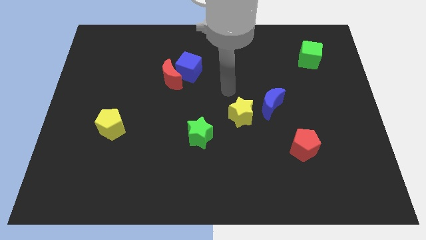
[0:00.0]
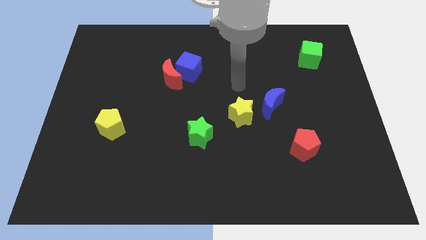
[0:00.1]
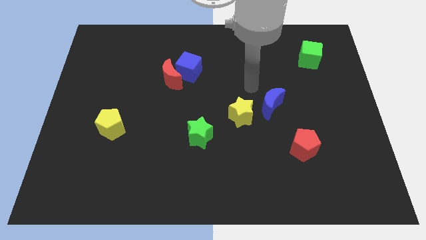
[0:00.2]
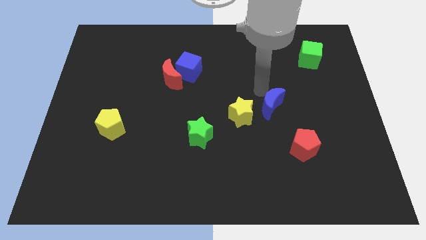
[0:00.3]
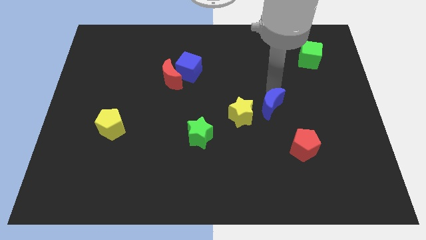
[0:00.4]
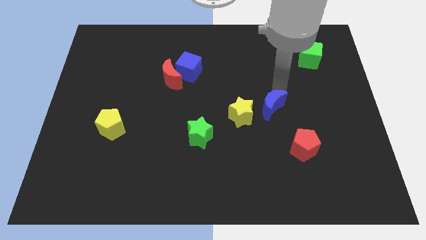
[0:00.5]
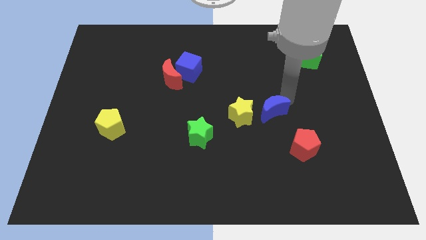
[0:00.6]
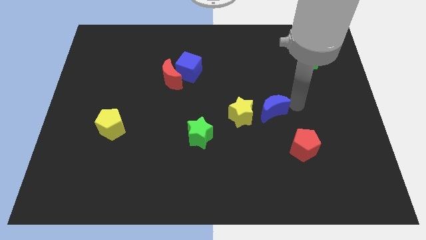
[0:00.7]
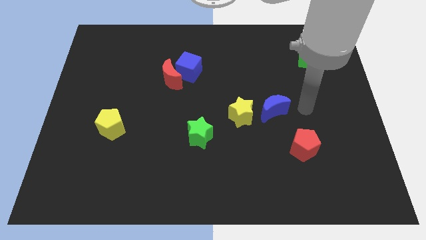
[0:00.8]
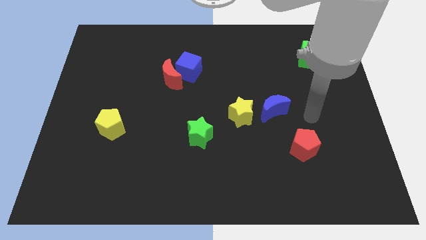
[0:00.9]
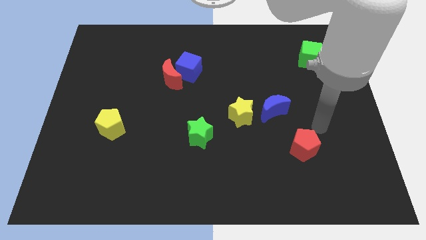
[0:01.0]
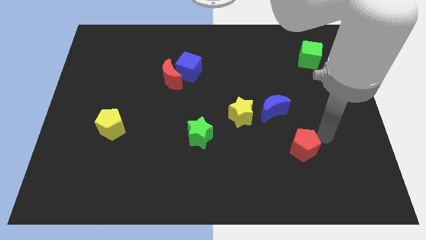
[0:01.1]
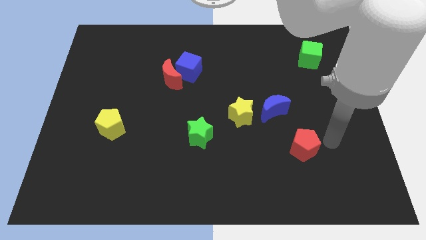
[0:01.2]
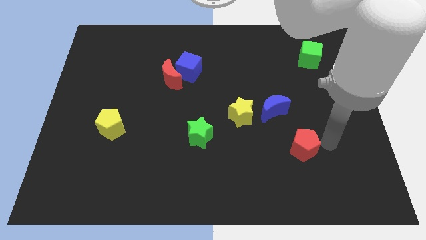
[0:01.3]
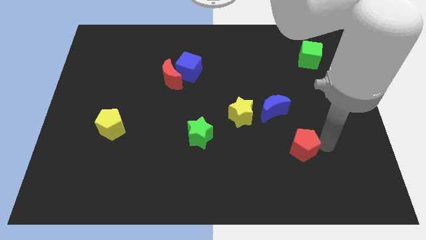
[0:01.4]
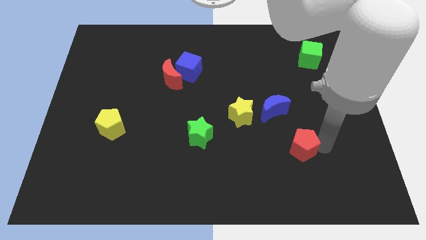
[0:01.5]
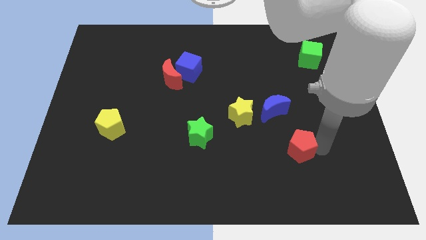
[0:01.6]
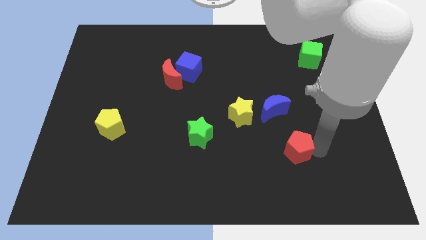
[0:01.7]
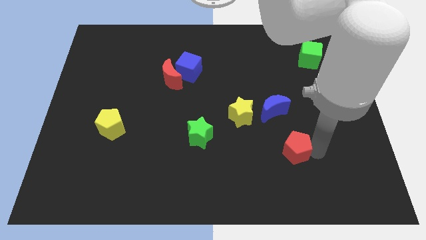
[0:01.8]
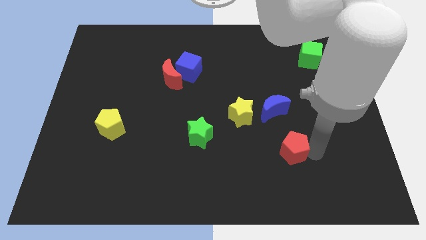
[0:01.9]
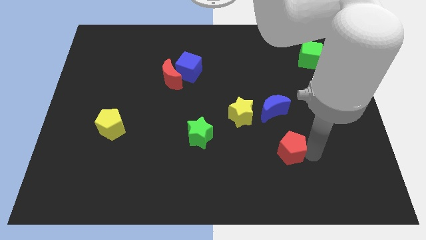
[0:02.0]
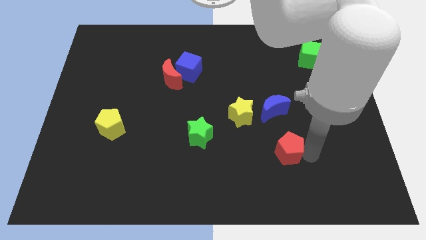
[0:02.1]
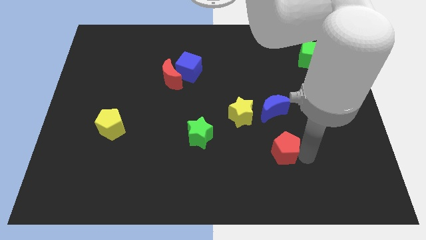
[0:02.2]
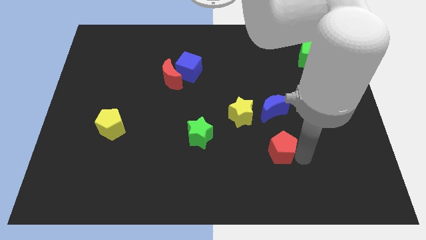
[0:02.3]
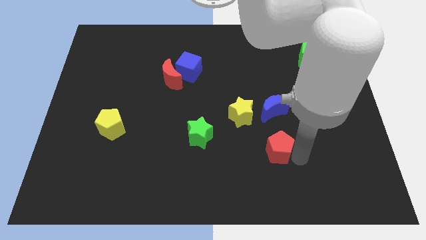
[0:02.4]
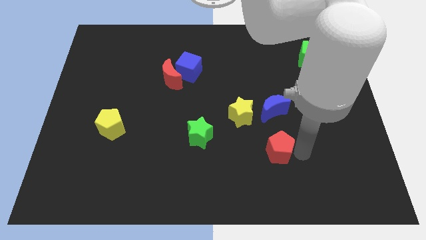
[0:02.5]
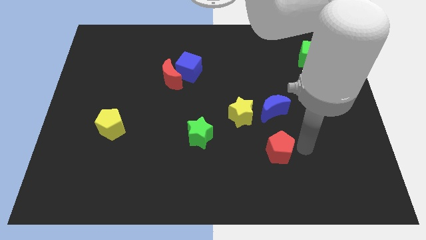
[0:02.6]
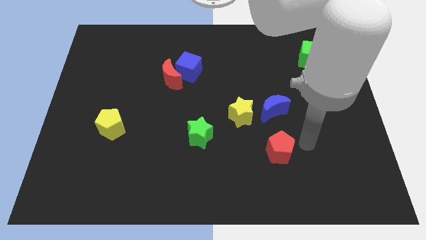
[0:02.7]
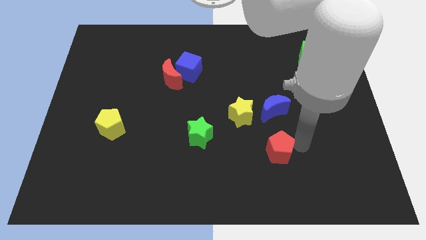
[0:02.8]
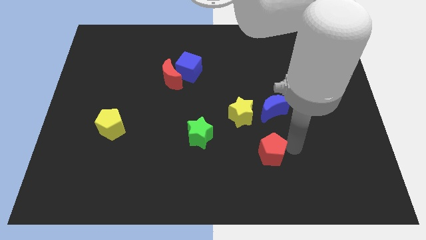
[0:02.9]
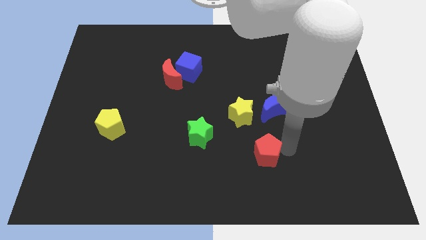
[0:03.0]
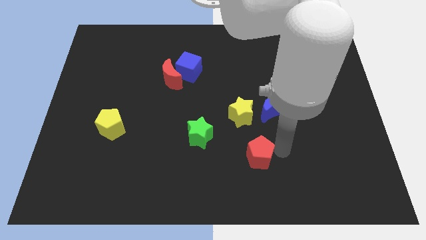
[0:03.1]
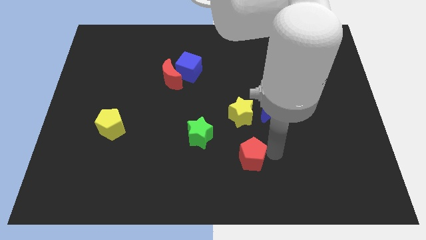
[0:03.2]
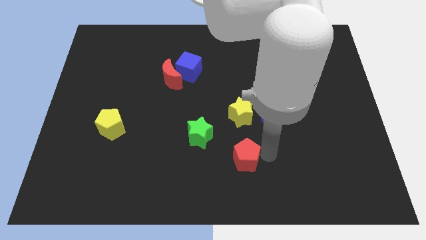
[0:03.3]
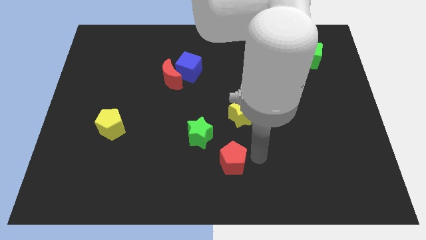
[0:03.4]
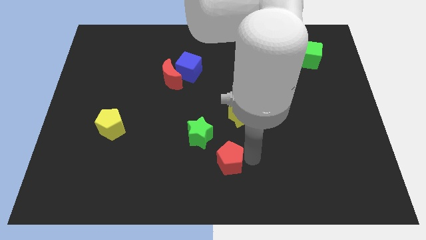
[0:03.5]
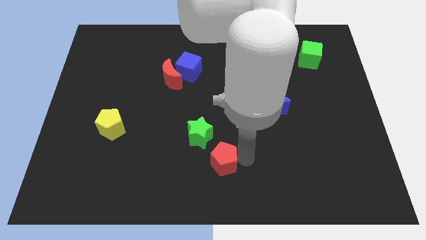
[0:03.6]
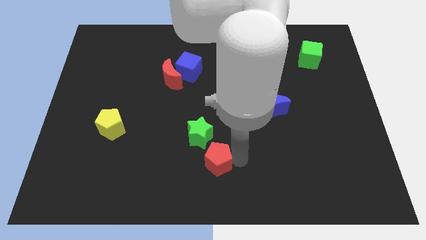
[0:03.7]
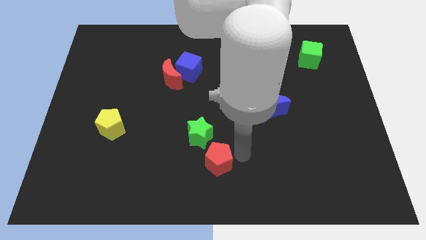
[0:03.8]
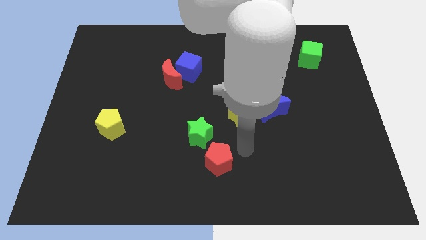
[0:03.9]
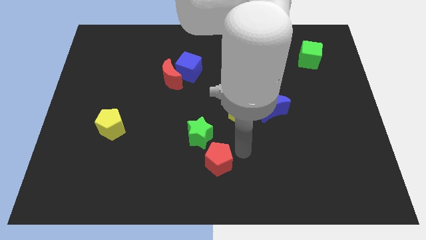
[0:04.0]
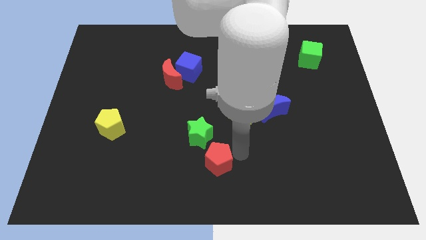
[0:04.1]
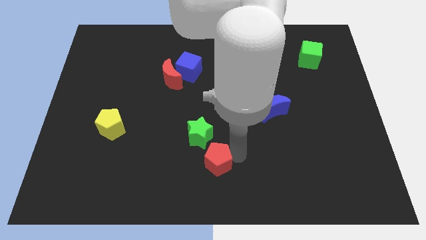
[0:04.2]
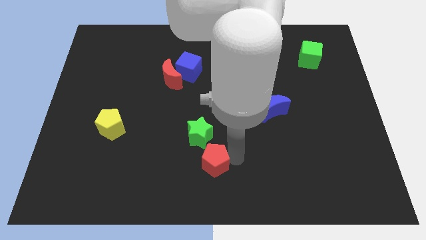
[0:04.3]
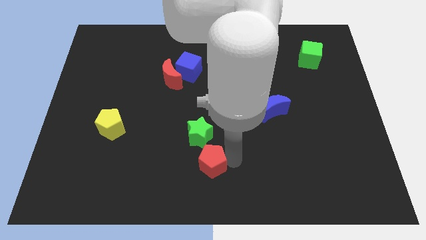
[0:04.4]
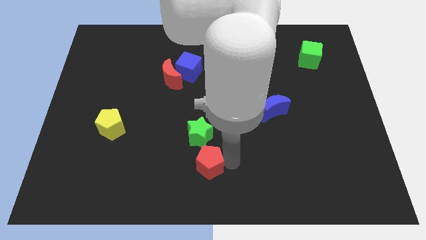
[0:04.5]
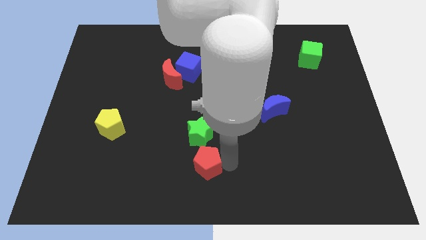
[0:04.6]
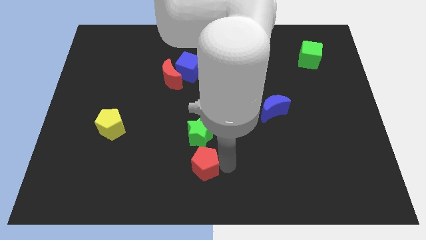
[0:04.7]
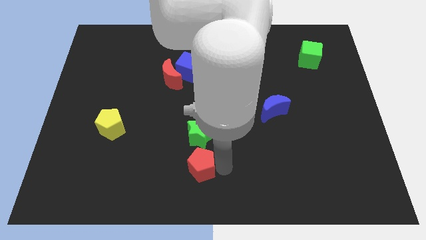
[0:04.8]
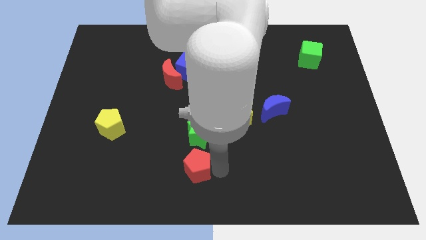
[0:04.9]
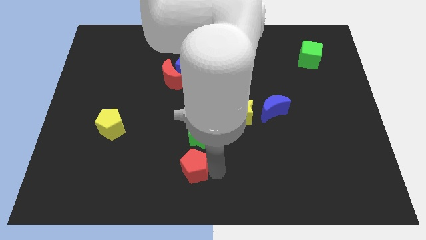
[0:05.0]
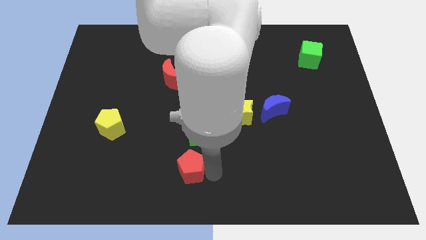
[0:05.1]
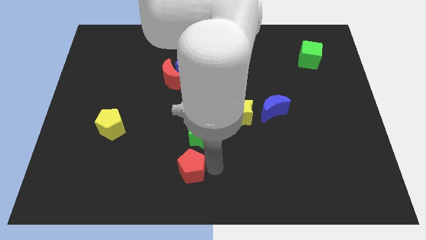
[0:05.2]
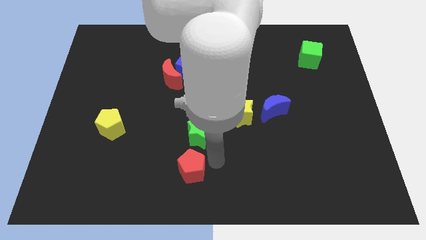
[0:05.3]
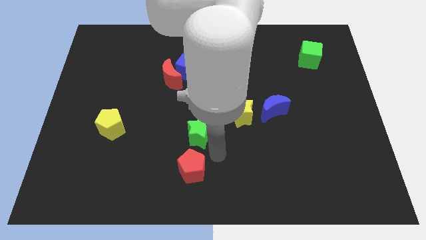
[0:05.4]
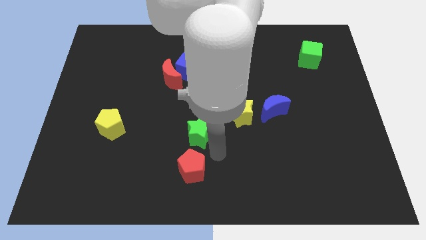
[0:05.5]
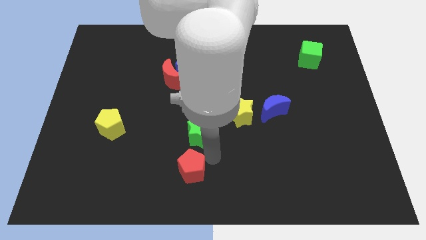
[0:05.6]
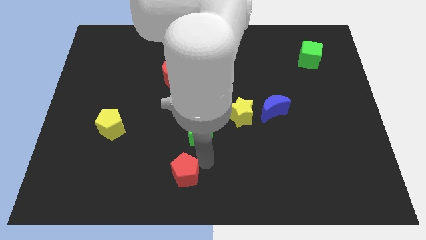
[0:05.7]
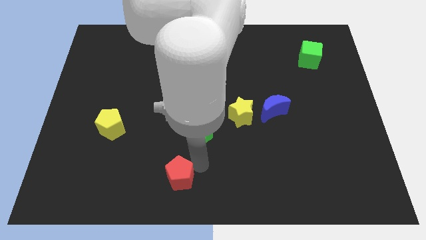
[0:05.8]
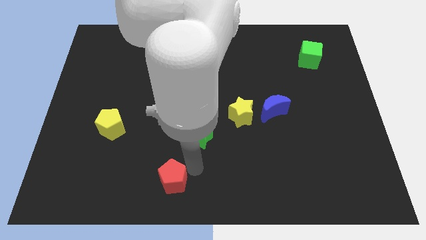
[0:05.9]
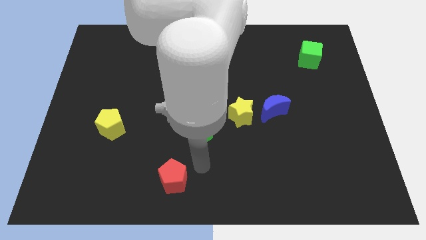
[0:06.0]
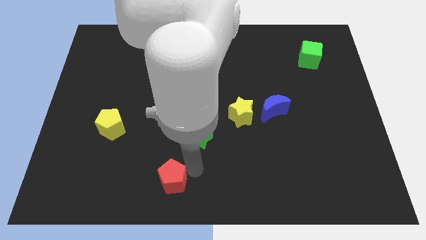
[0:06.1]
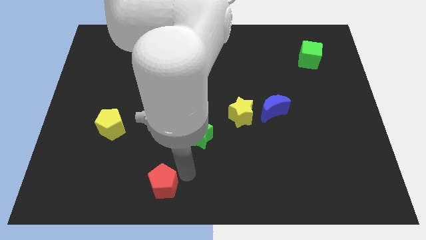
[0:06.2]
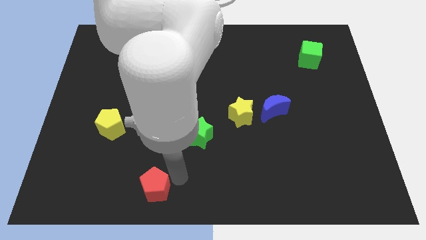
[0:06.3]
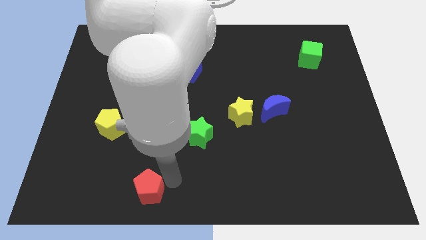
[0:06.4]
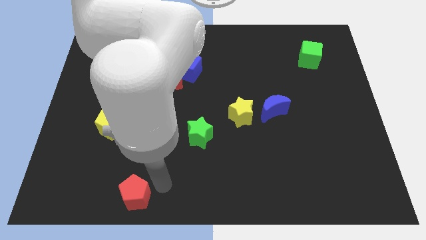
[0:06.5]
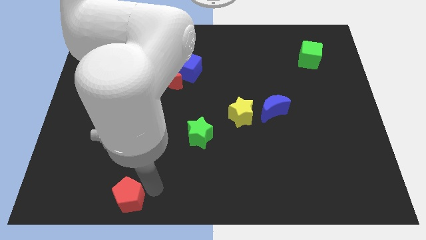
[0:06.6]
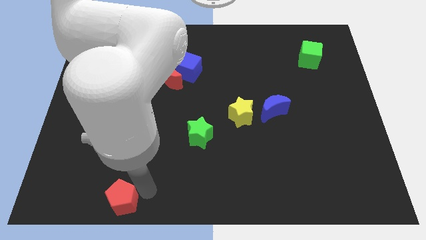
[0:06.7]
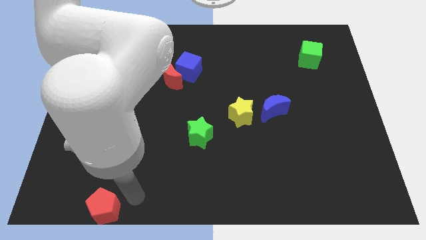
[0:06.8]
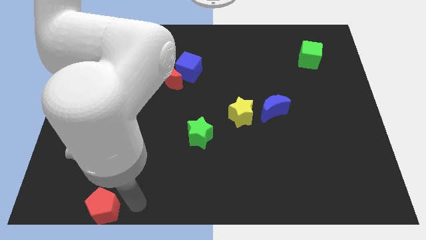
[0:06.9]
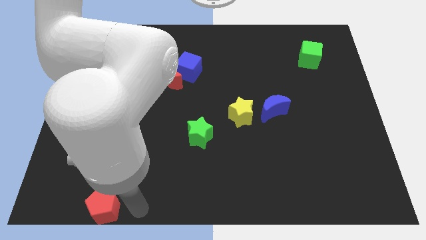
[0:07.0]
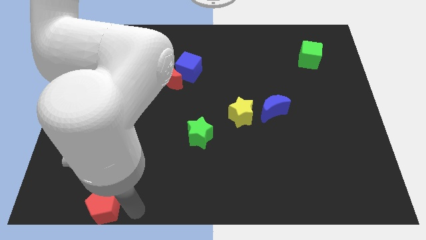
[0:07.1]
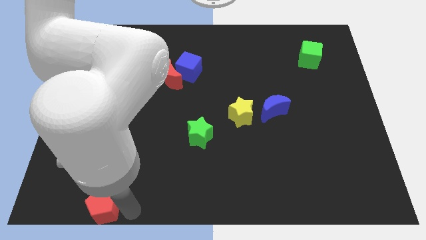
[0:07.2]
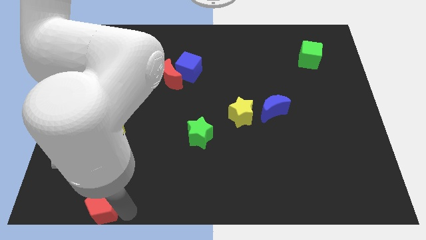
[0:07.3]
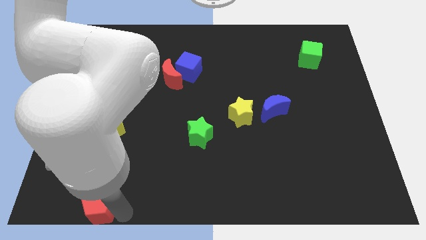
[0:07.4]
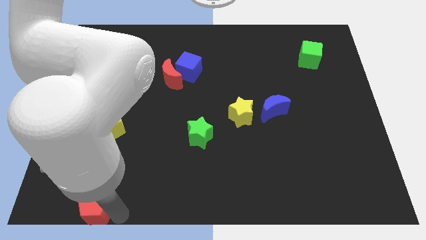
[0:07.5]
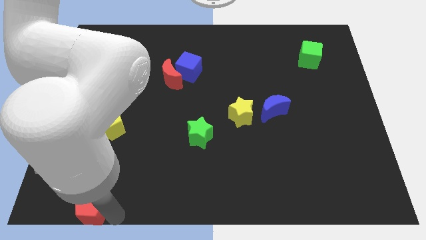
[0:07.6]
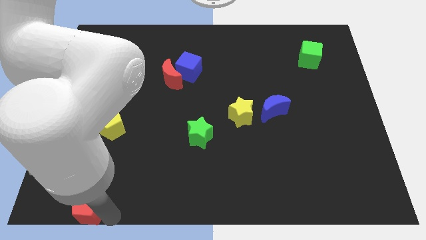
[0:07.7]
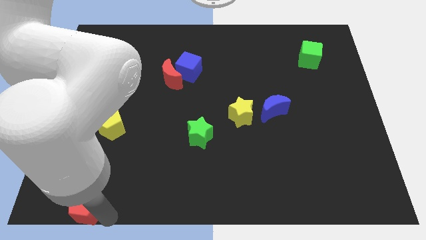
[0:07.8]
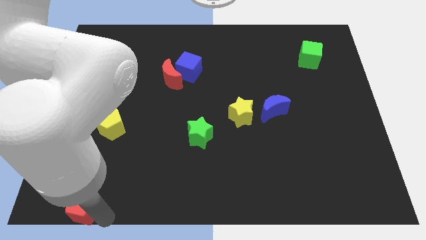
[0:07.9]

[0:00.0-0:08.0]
move the red pentagon to the bottom left corner
